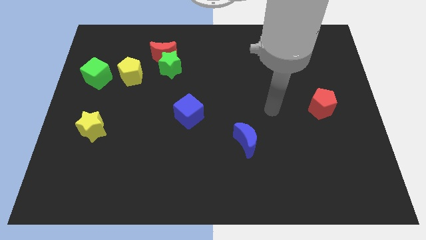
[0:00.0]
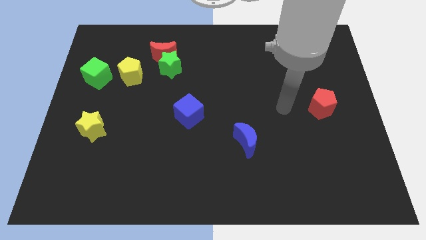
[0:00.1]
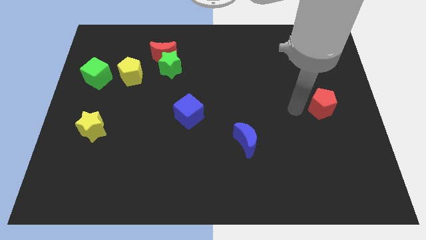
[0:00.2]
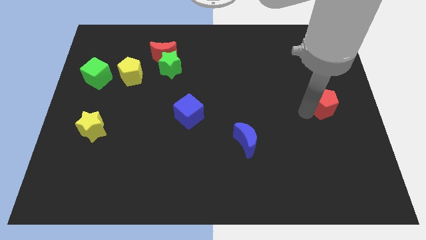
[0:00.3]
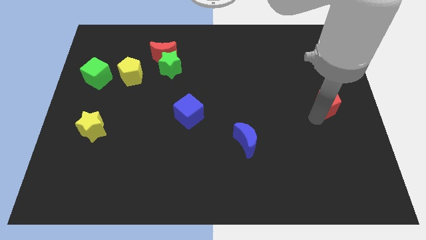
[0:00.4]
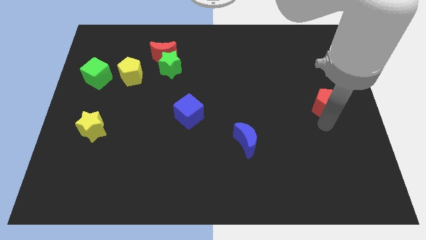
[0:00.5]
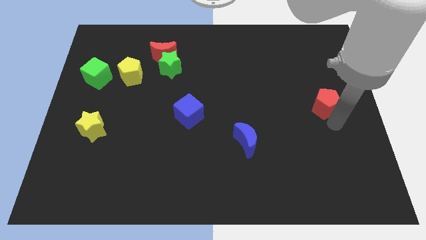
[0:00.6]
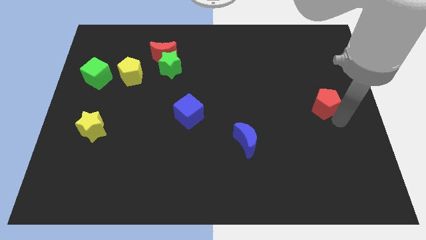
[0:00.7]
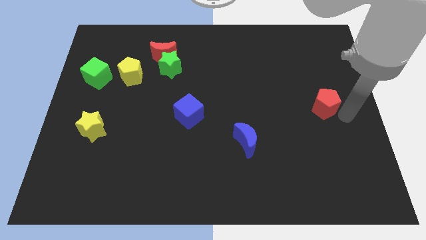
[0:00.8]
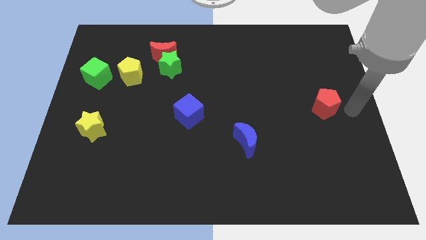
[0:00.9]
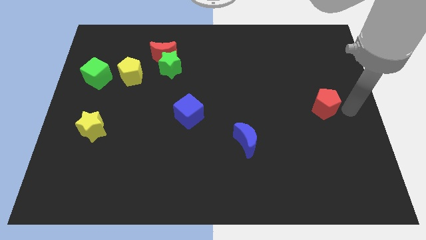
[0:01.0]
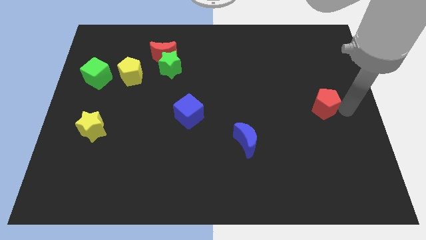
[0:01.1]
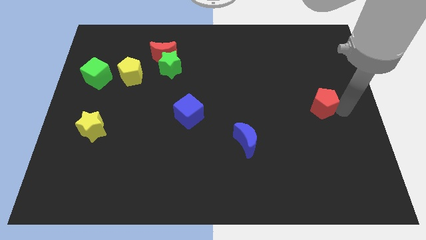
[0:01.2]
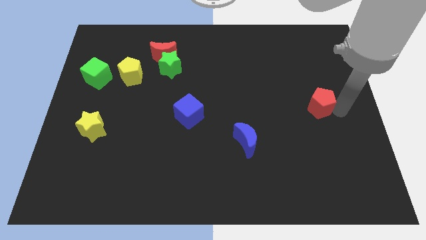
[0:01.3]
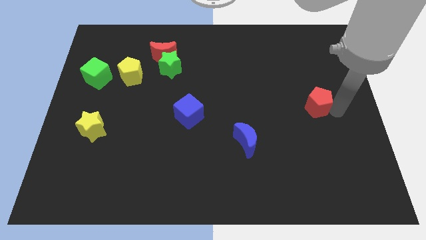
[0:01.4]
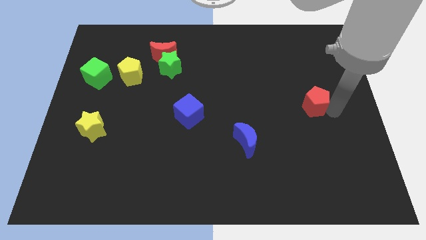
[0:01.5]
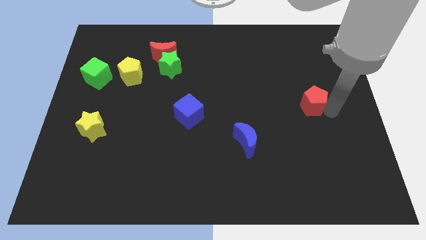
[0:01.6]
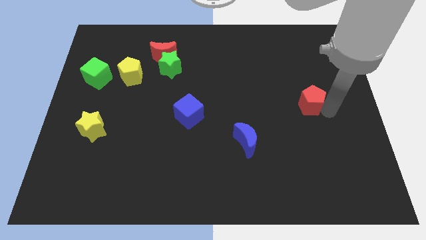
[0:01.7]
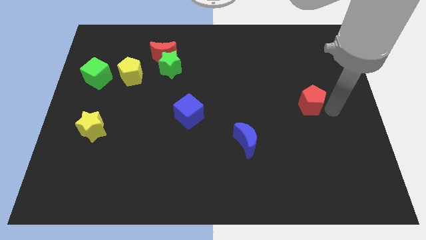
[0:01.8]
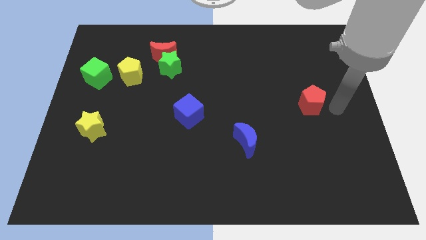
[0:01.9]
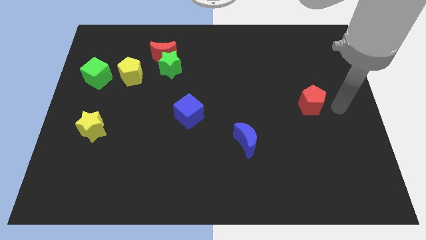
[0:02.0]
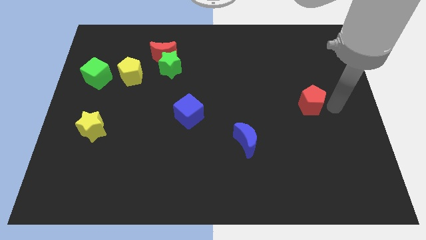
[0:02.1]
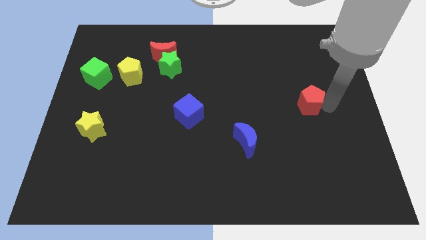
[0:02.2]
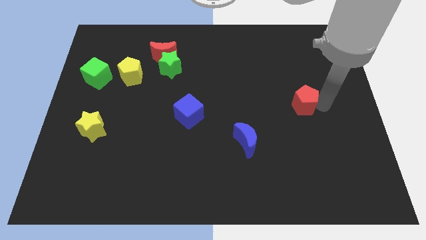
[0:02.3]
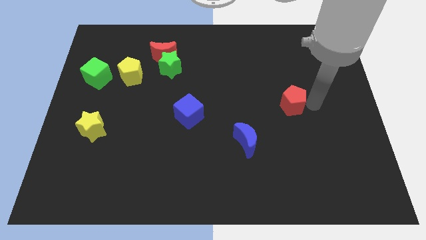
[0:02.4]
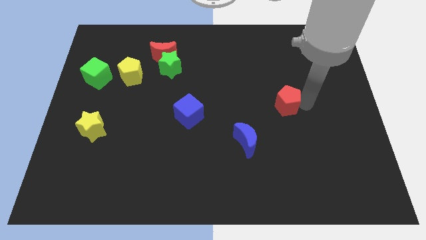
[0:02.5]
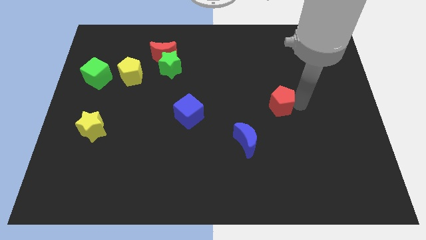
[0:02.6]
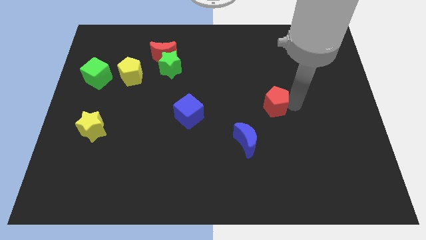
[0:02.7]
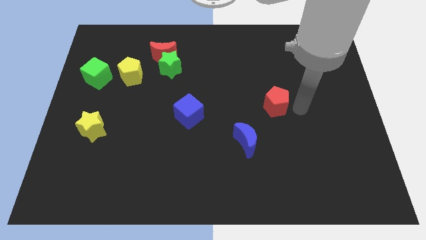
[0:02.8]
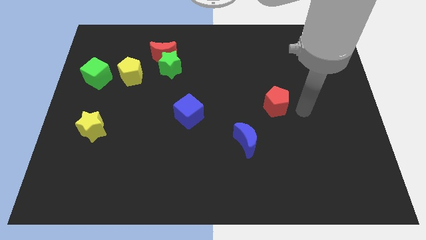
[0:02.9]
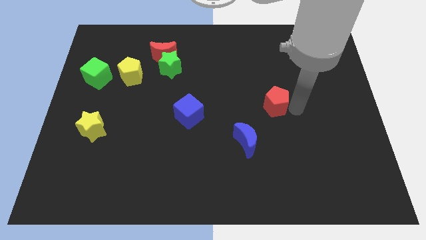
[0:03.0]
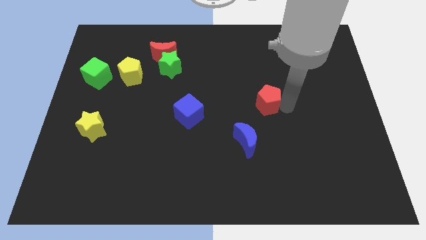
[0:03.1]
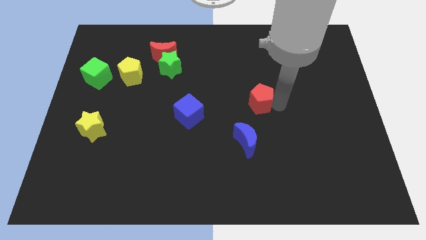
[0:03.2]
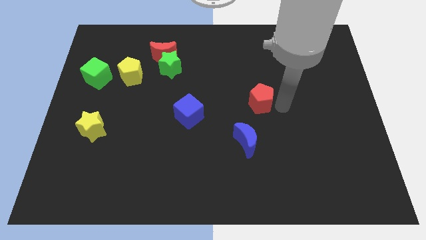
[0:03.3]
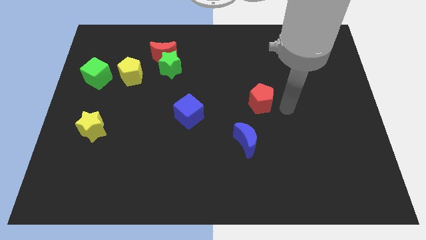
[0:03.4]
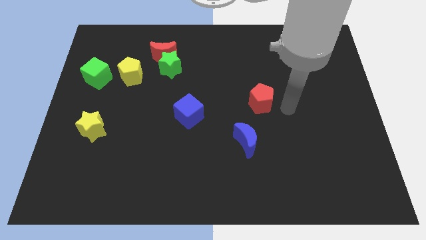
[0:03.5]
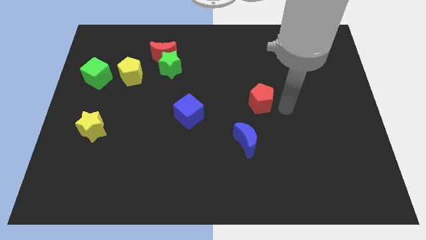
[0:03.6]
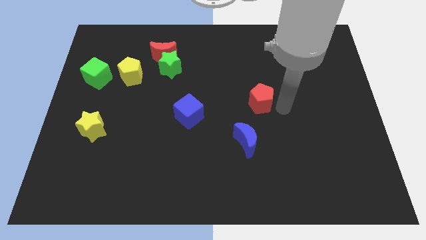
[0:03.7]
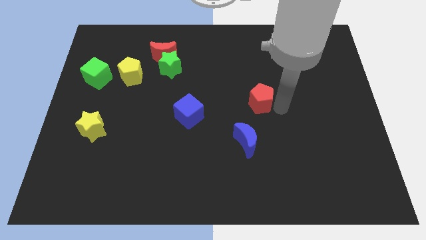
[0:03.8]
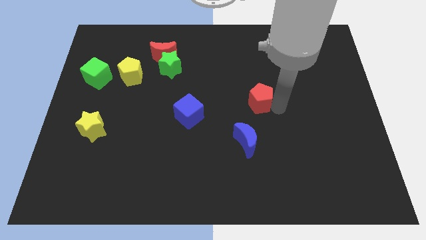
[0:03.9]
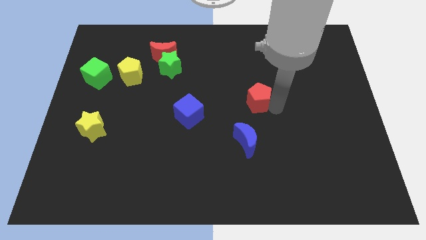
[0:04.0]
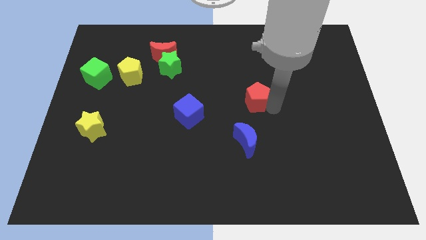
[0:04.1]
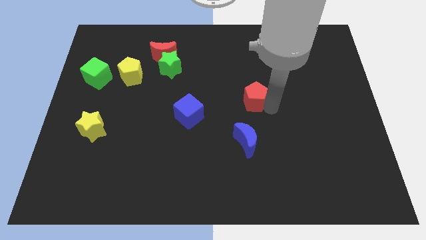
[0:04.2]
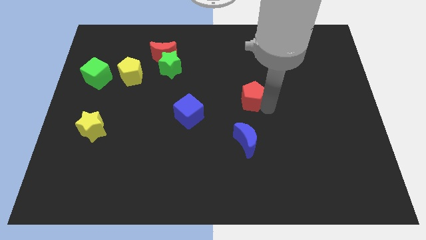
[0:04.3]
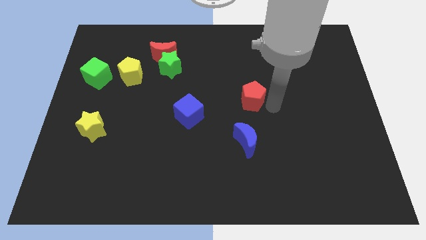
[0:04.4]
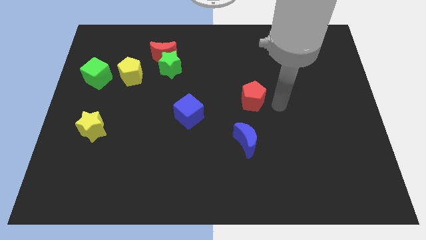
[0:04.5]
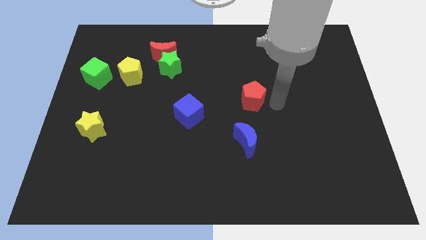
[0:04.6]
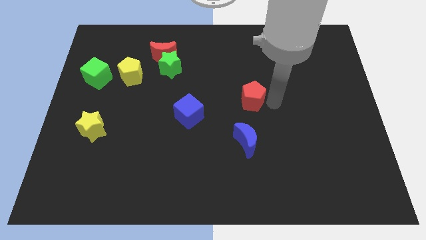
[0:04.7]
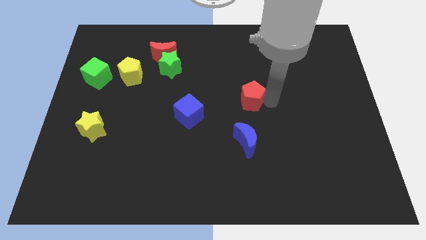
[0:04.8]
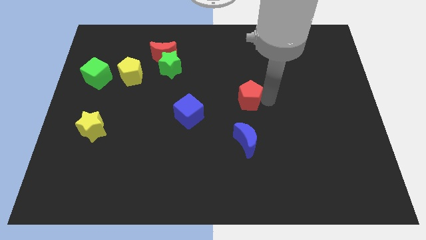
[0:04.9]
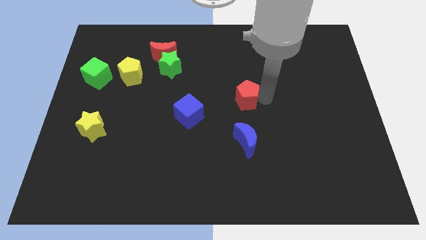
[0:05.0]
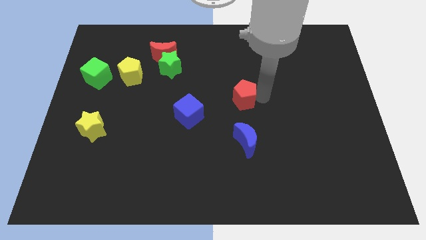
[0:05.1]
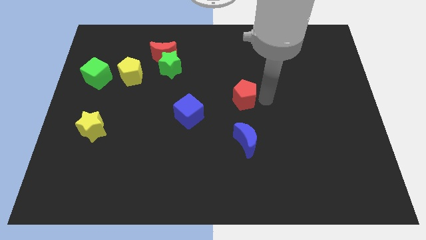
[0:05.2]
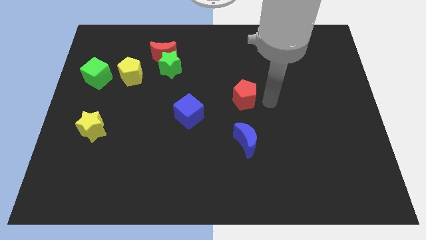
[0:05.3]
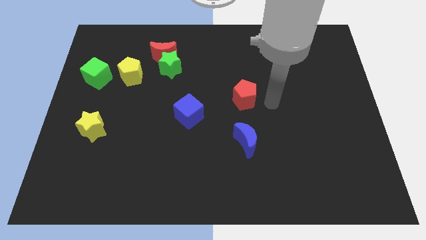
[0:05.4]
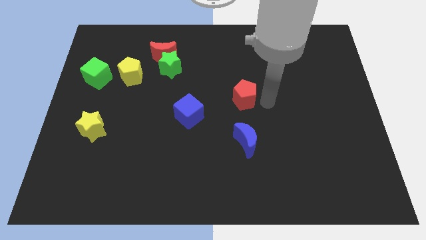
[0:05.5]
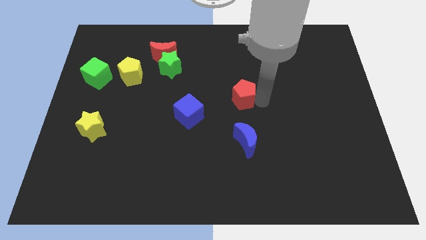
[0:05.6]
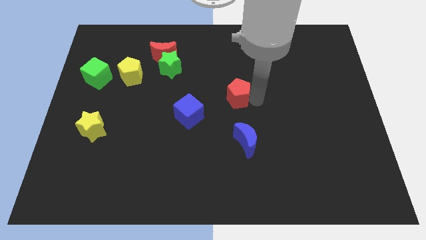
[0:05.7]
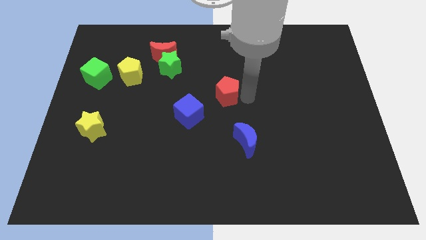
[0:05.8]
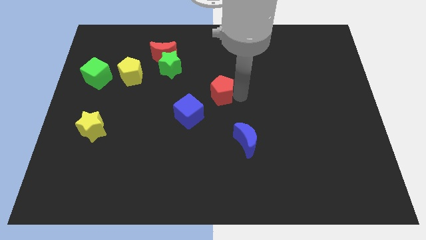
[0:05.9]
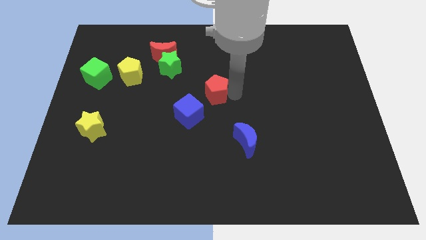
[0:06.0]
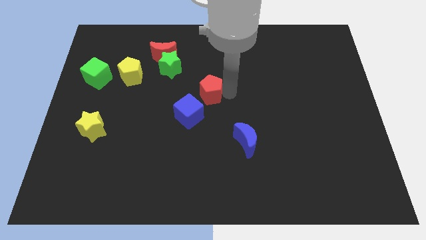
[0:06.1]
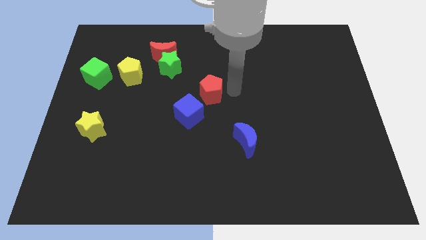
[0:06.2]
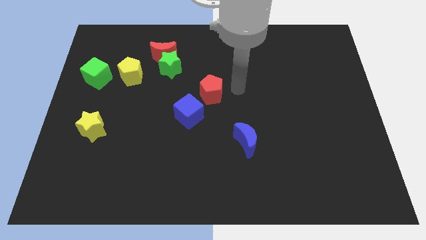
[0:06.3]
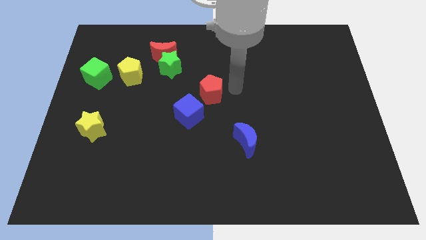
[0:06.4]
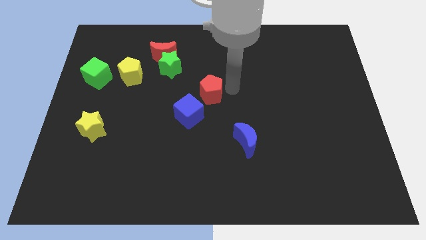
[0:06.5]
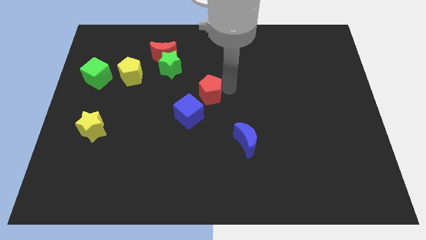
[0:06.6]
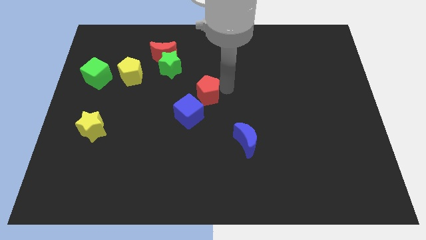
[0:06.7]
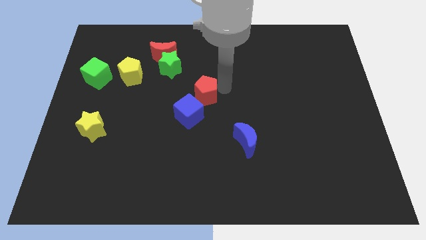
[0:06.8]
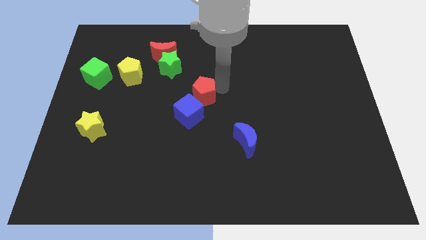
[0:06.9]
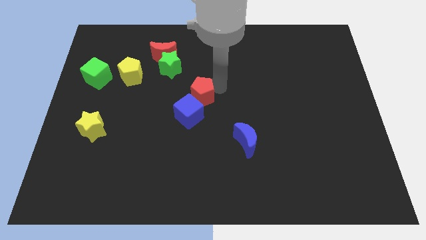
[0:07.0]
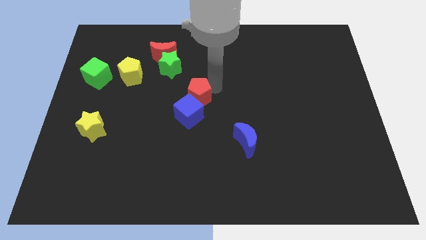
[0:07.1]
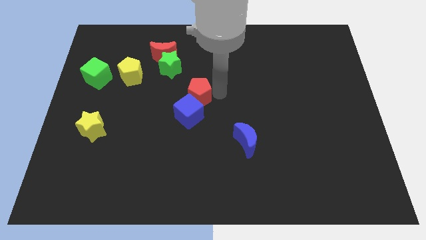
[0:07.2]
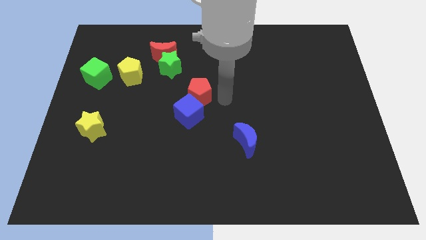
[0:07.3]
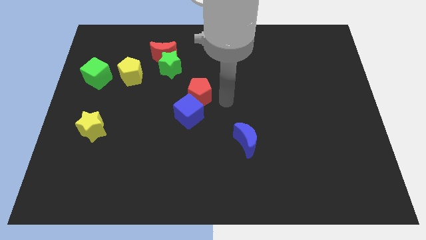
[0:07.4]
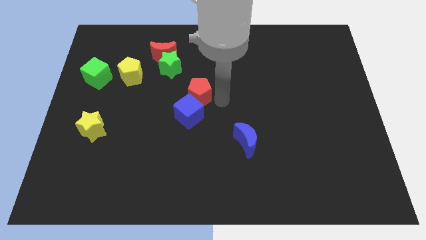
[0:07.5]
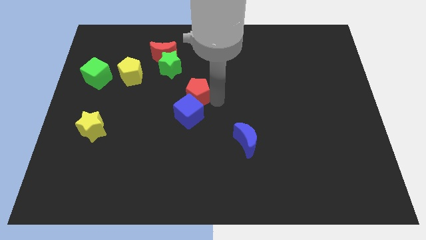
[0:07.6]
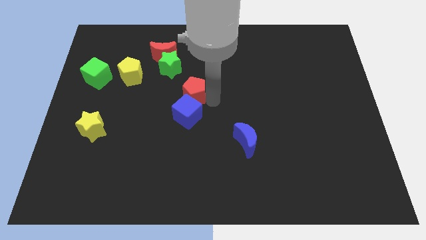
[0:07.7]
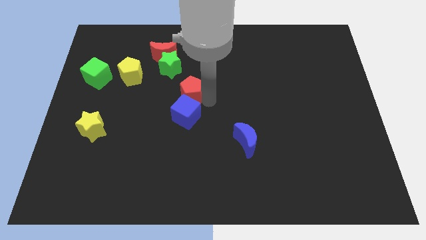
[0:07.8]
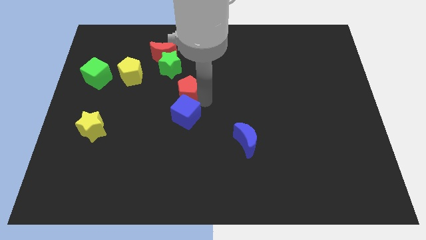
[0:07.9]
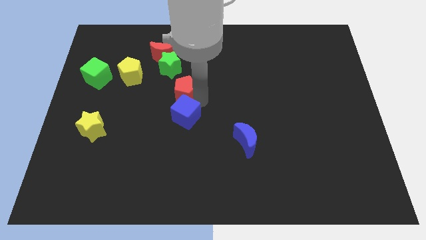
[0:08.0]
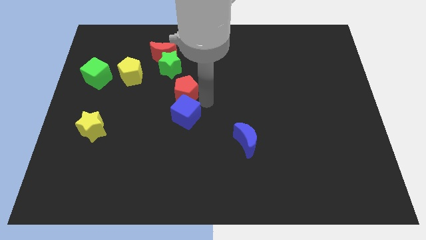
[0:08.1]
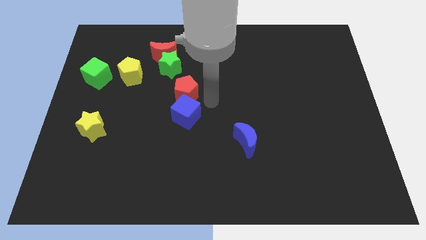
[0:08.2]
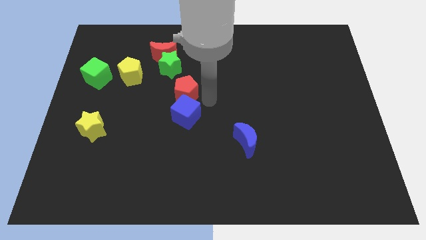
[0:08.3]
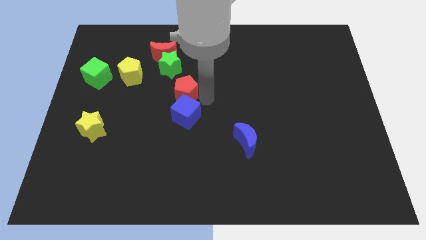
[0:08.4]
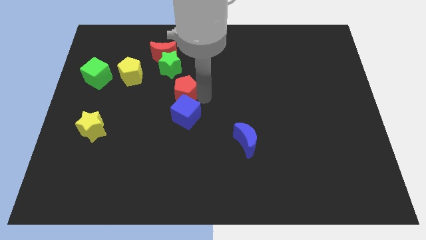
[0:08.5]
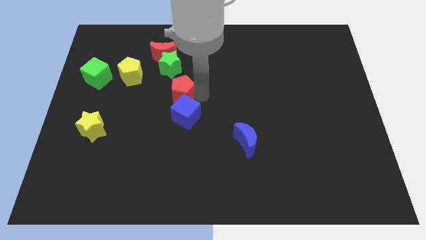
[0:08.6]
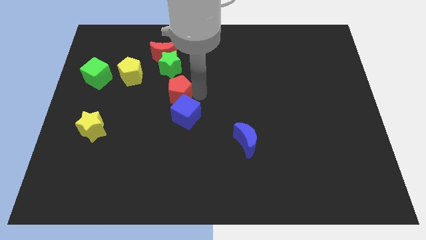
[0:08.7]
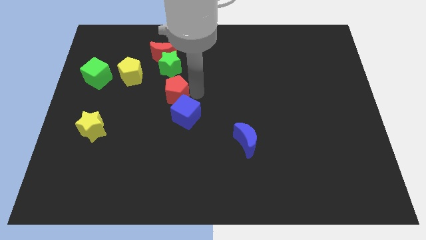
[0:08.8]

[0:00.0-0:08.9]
push the red pentagon to the bottom of the red moon
